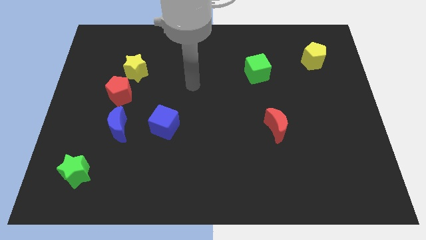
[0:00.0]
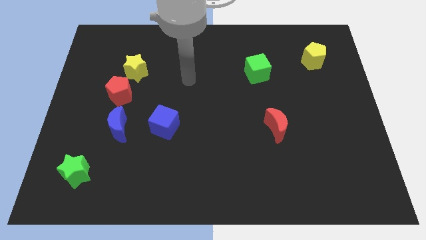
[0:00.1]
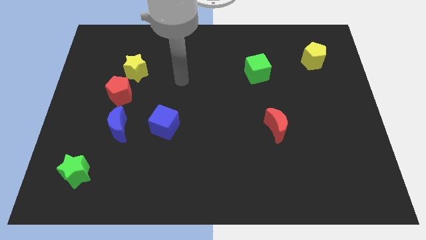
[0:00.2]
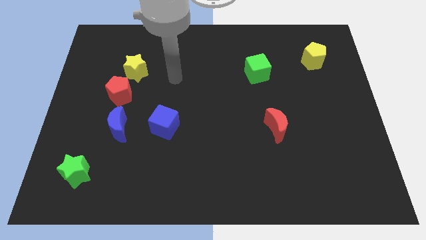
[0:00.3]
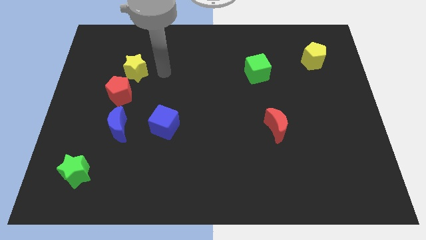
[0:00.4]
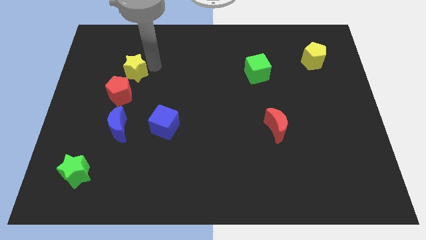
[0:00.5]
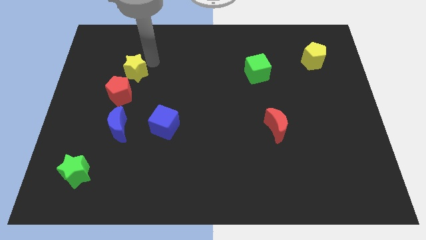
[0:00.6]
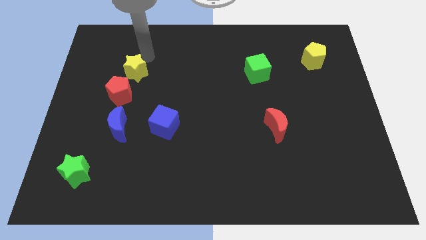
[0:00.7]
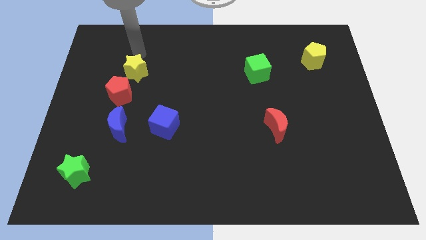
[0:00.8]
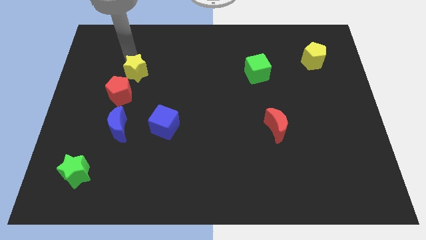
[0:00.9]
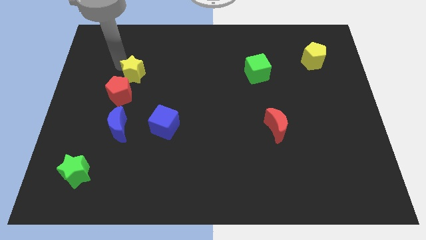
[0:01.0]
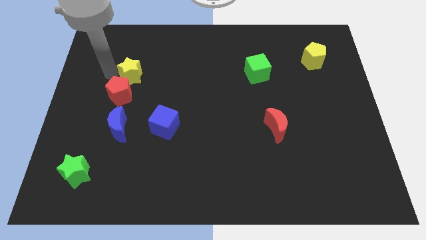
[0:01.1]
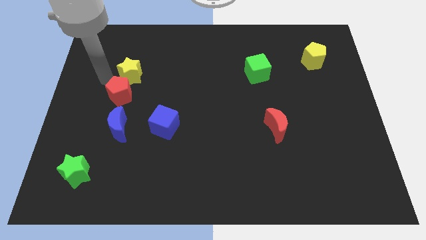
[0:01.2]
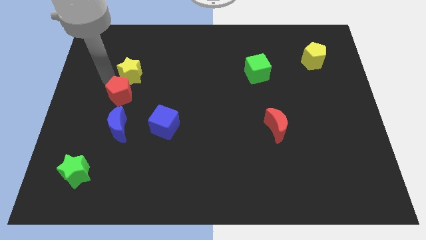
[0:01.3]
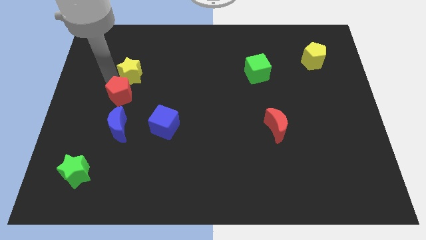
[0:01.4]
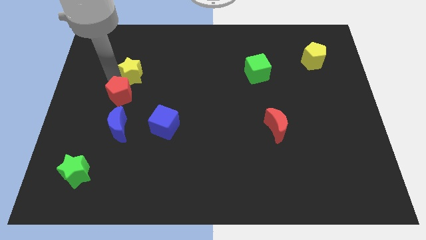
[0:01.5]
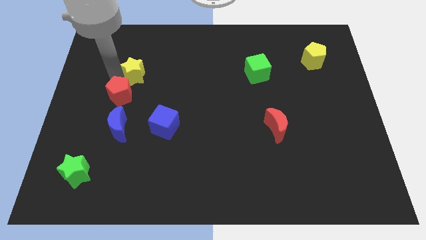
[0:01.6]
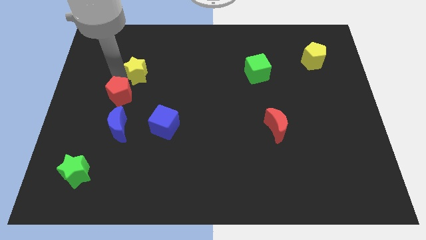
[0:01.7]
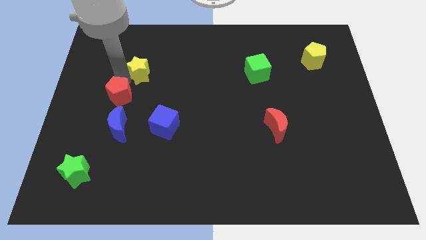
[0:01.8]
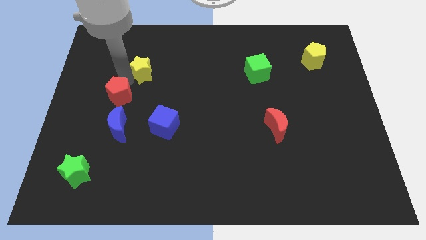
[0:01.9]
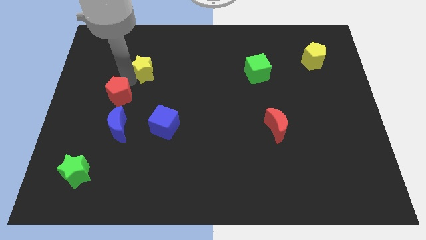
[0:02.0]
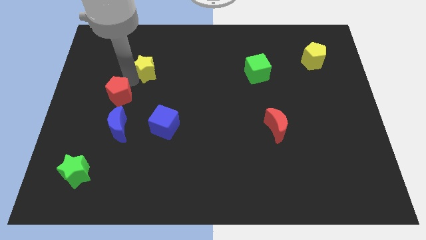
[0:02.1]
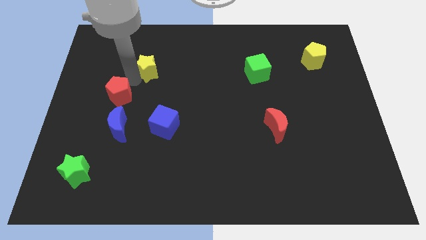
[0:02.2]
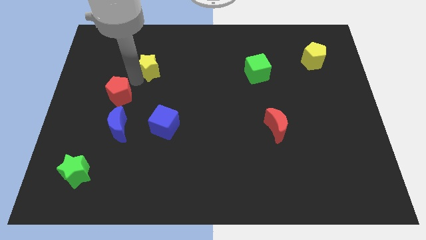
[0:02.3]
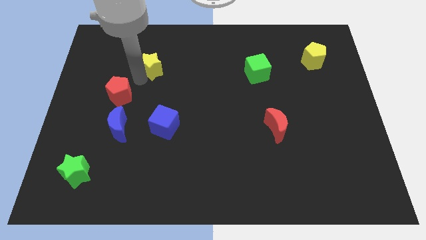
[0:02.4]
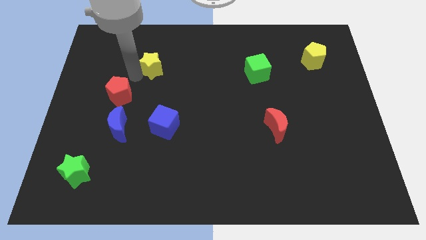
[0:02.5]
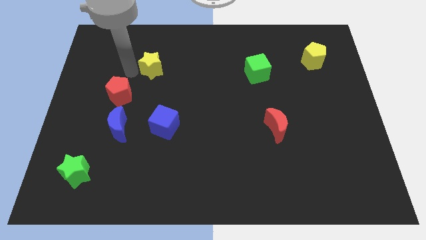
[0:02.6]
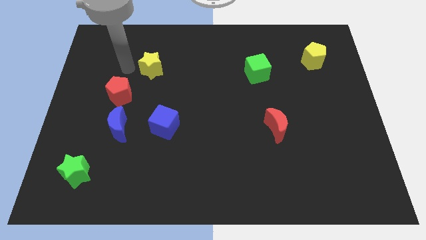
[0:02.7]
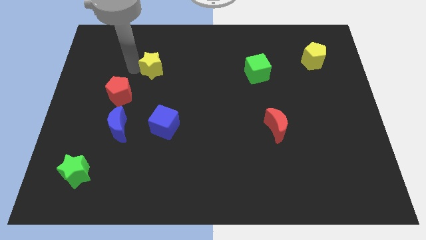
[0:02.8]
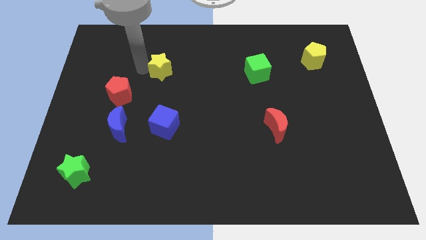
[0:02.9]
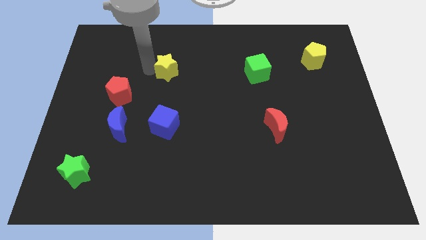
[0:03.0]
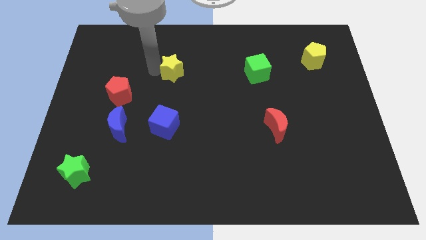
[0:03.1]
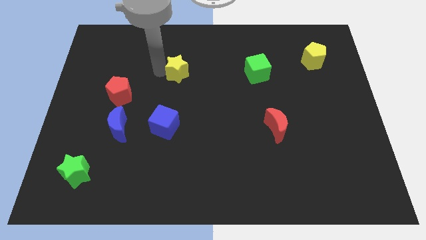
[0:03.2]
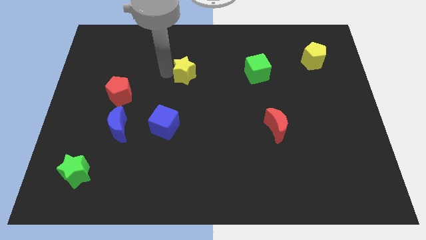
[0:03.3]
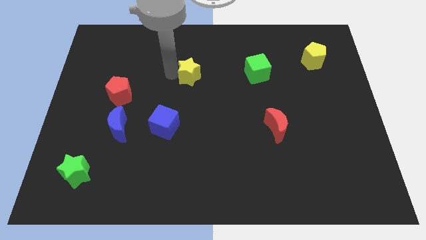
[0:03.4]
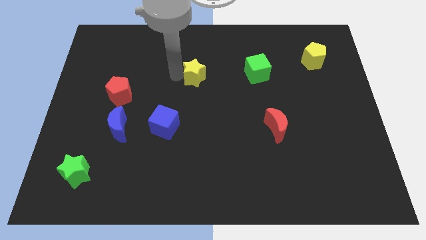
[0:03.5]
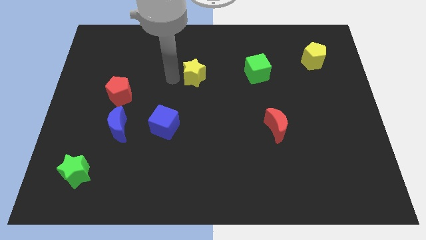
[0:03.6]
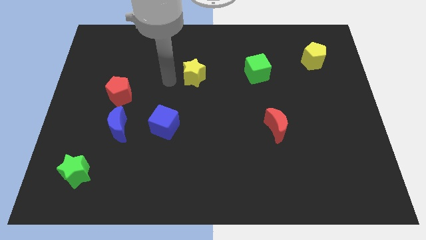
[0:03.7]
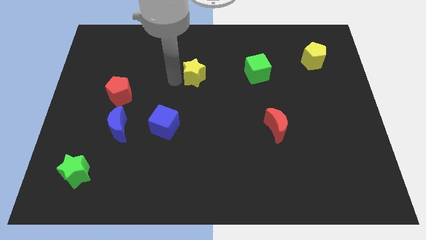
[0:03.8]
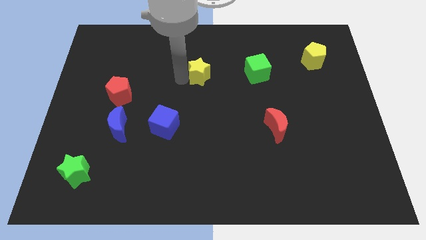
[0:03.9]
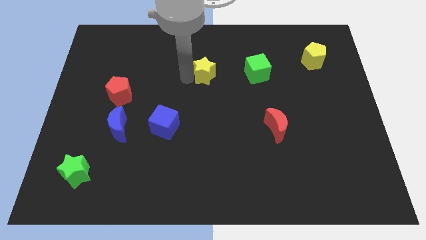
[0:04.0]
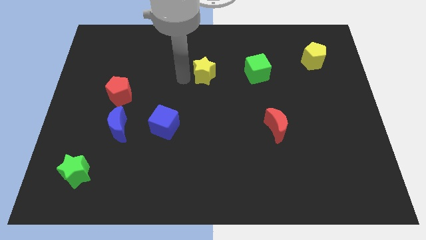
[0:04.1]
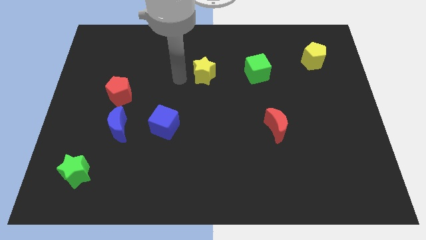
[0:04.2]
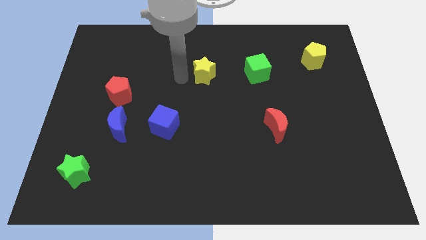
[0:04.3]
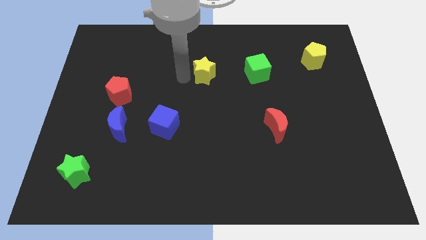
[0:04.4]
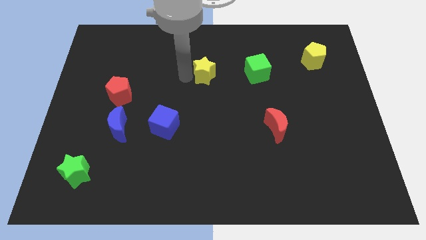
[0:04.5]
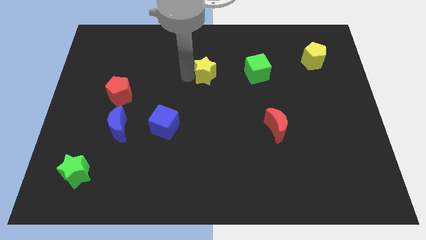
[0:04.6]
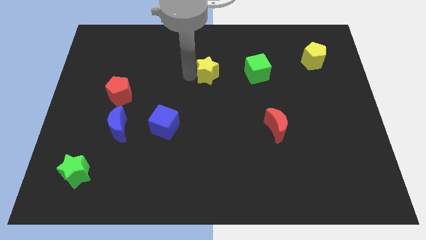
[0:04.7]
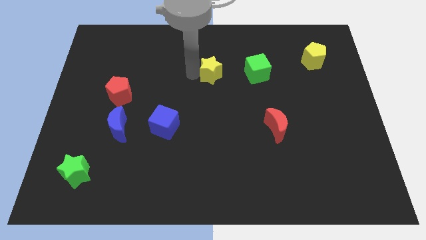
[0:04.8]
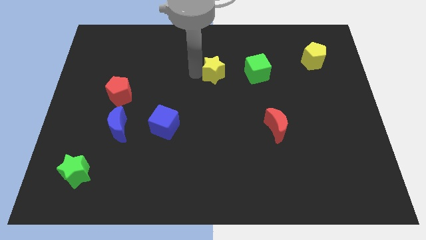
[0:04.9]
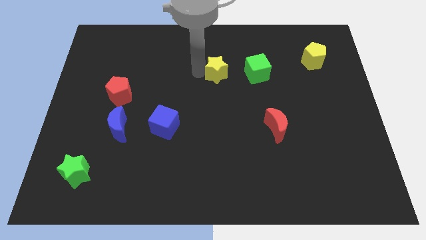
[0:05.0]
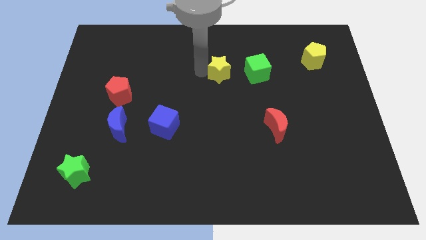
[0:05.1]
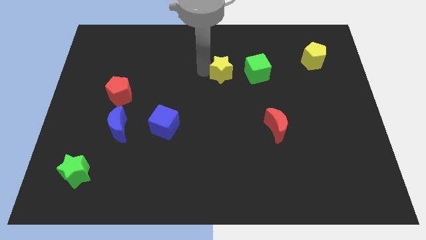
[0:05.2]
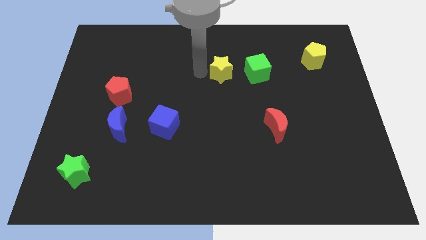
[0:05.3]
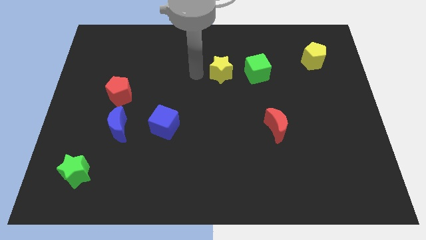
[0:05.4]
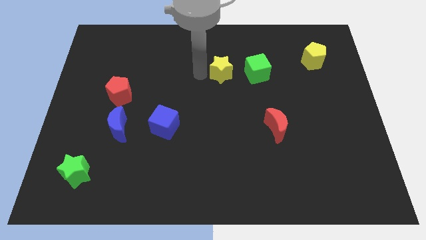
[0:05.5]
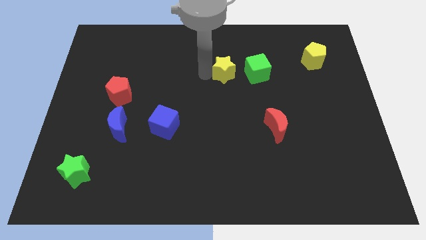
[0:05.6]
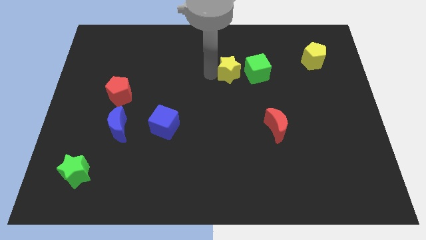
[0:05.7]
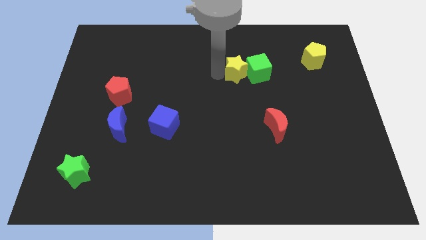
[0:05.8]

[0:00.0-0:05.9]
move the yellow star to the green cube

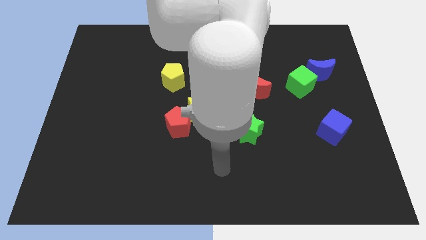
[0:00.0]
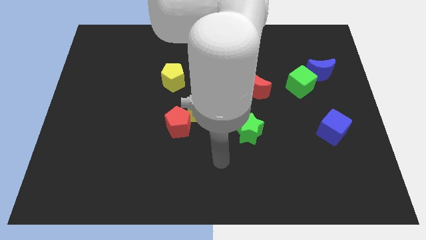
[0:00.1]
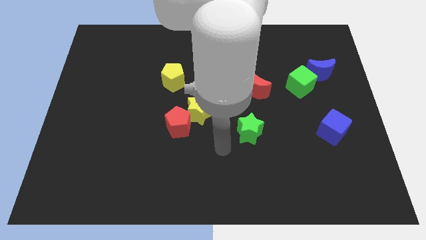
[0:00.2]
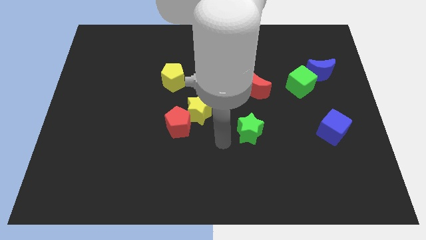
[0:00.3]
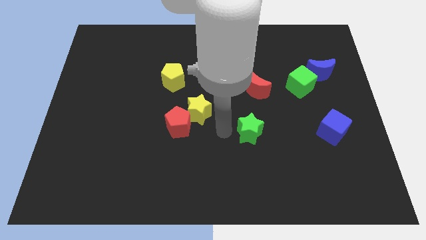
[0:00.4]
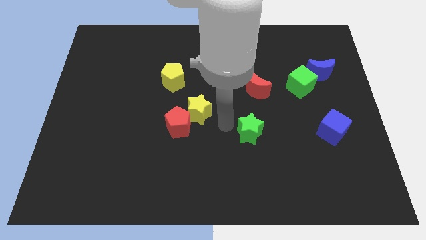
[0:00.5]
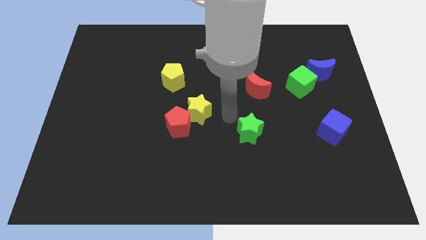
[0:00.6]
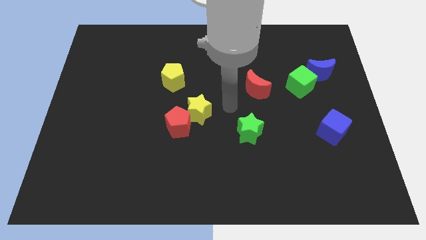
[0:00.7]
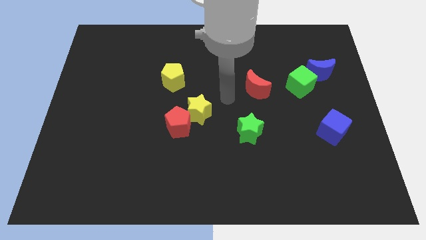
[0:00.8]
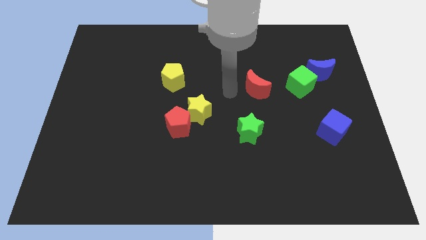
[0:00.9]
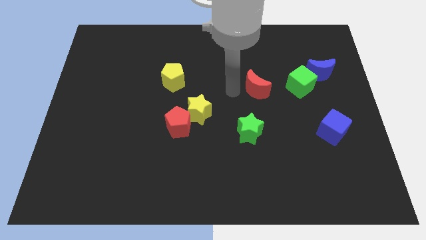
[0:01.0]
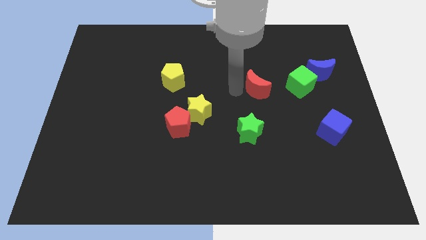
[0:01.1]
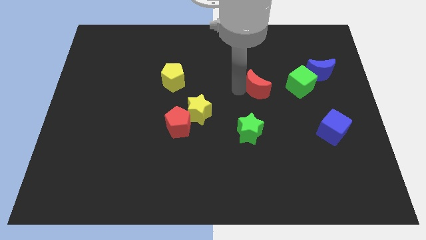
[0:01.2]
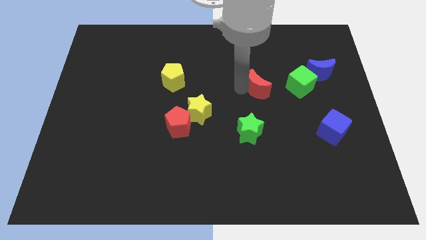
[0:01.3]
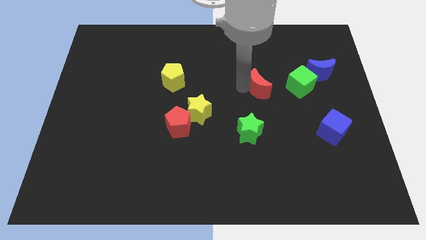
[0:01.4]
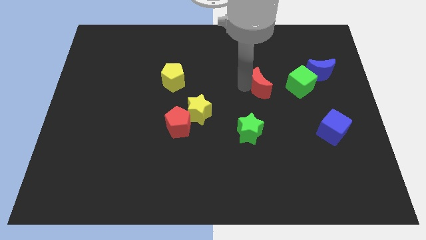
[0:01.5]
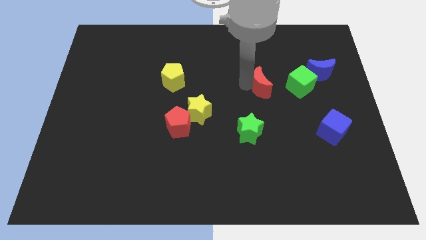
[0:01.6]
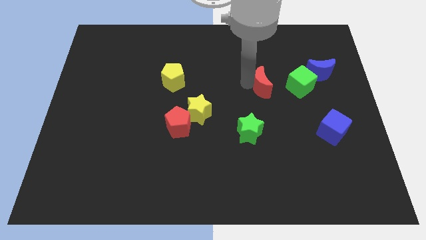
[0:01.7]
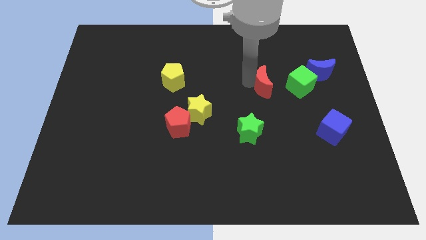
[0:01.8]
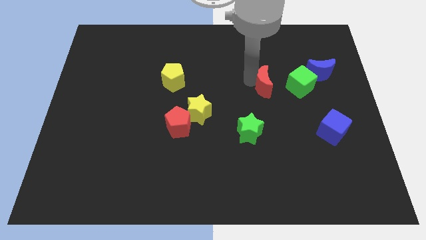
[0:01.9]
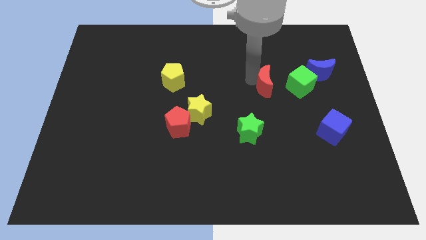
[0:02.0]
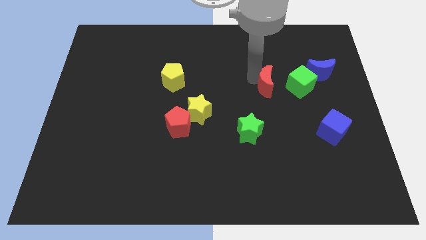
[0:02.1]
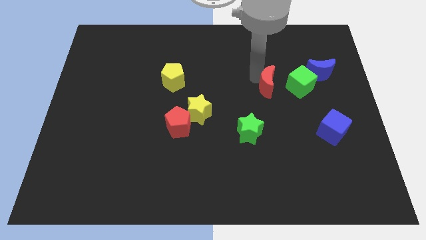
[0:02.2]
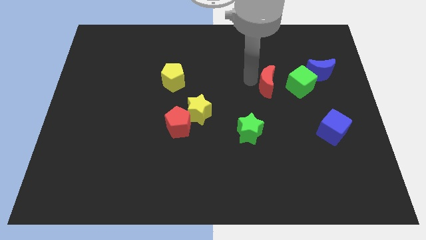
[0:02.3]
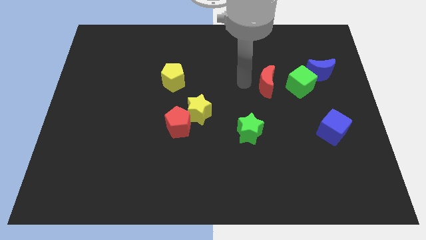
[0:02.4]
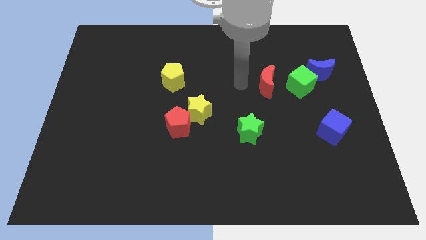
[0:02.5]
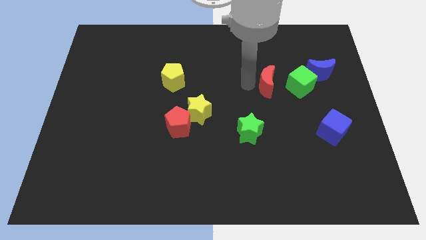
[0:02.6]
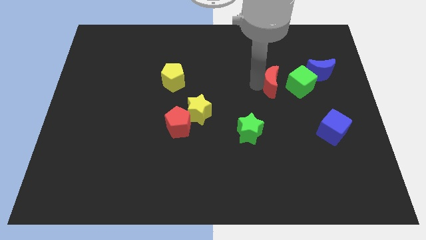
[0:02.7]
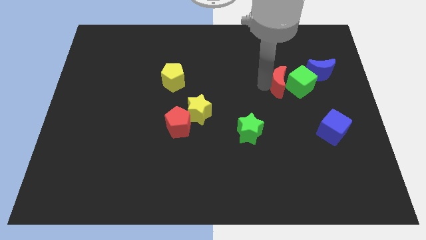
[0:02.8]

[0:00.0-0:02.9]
put the red moon close to the green cube
